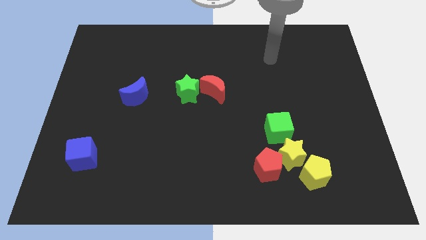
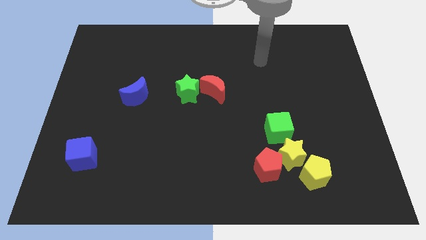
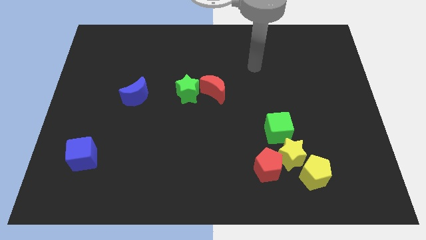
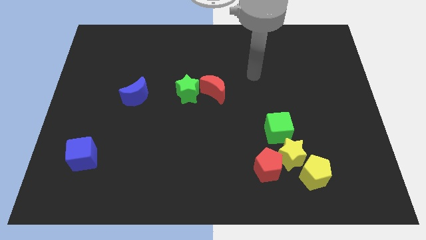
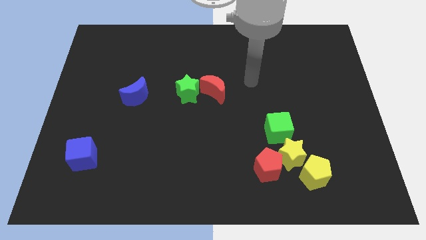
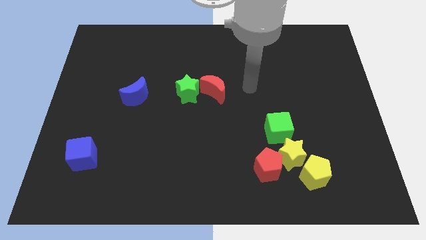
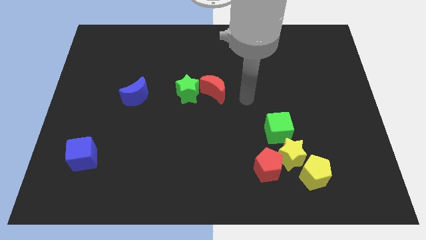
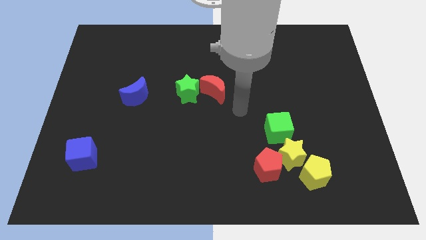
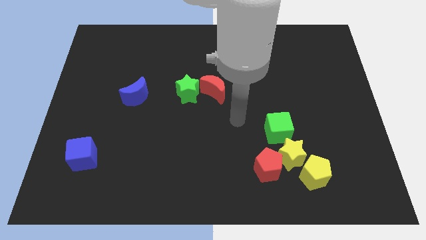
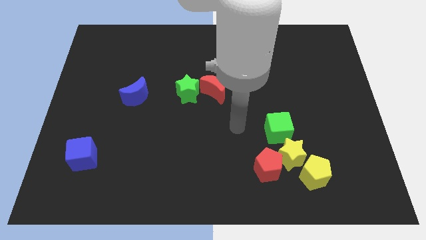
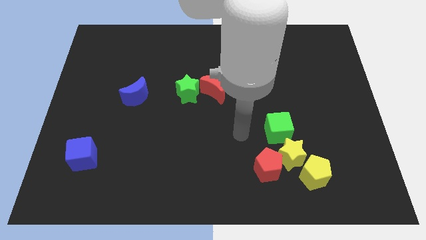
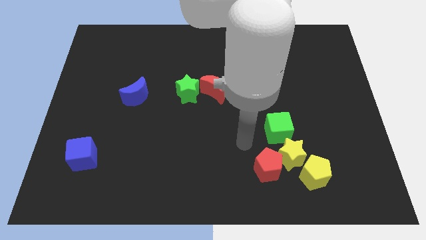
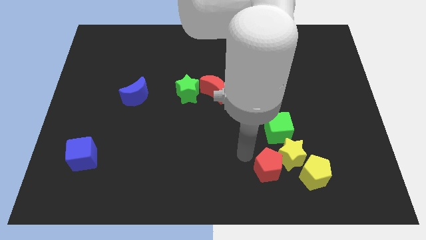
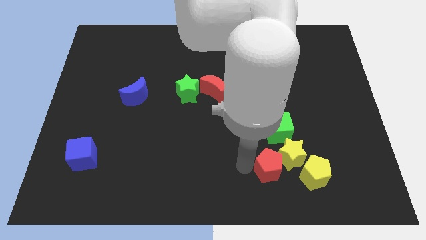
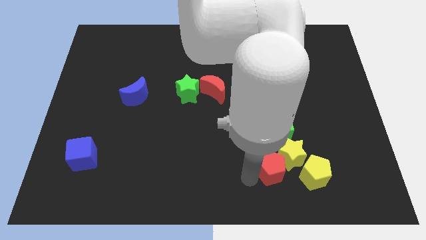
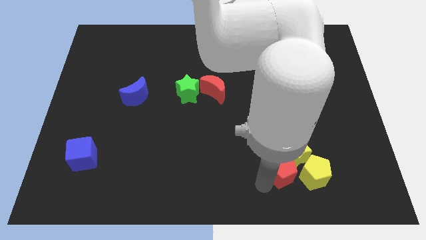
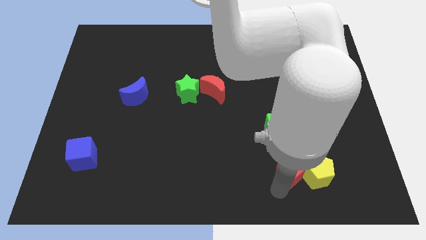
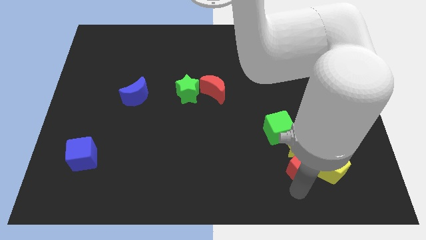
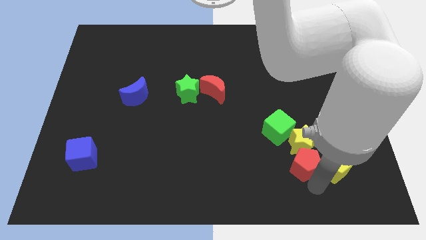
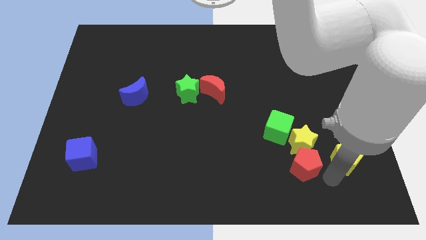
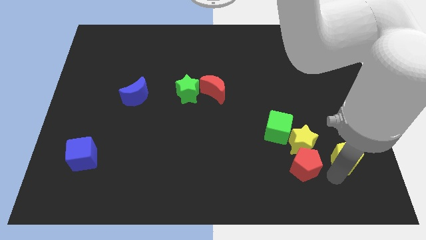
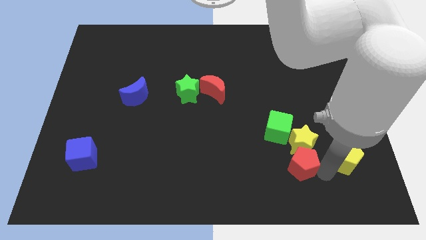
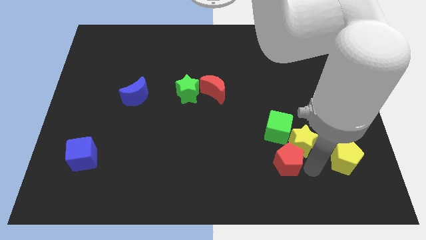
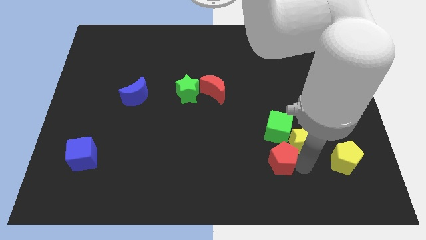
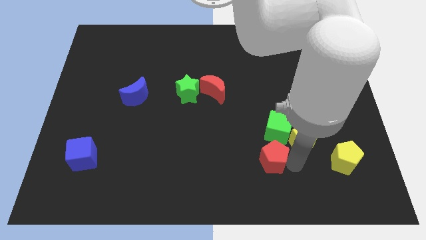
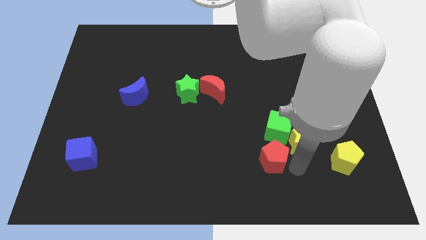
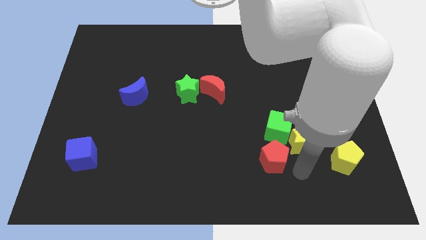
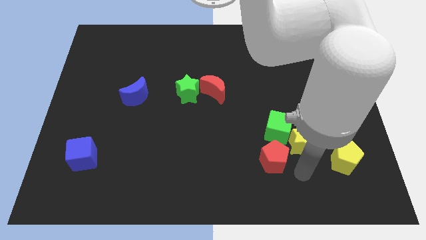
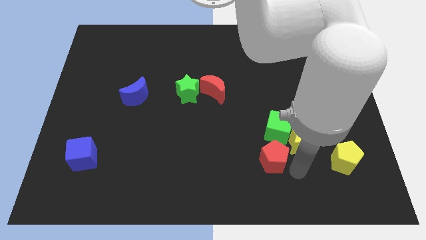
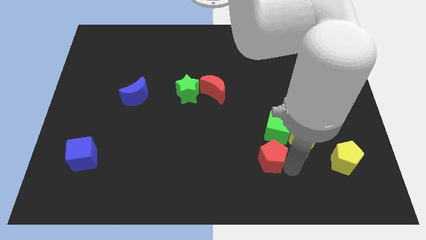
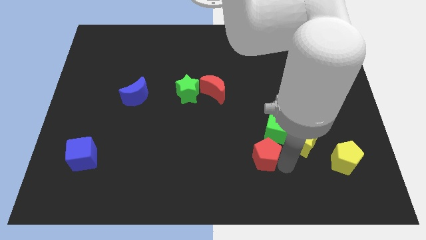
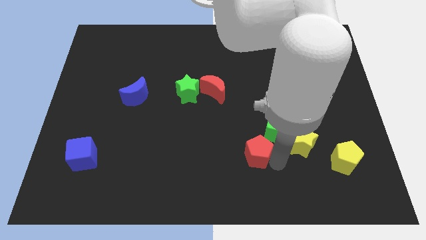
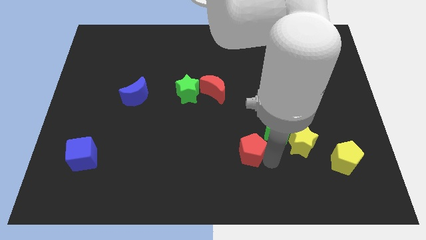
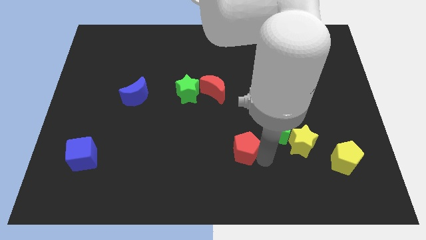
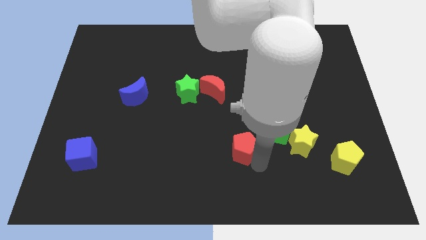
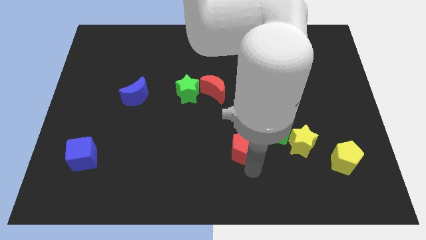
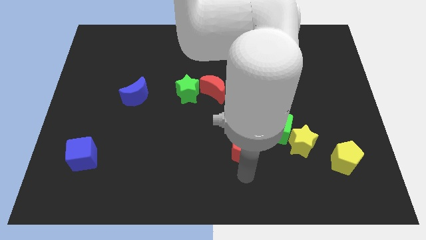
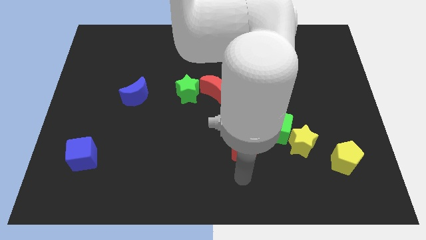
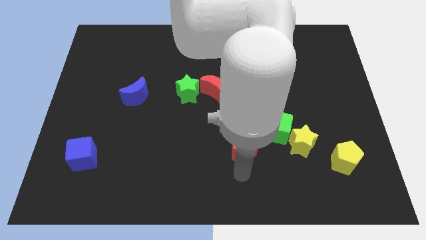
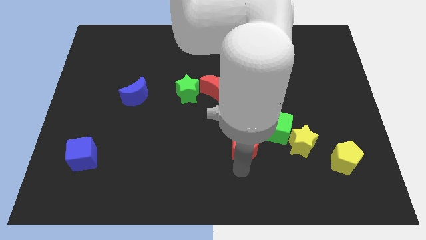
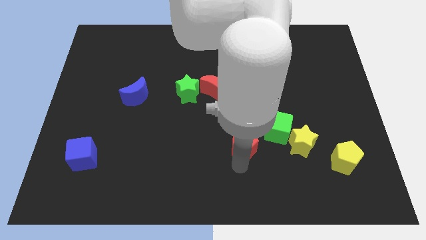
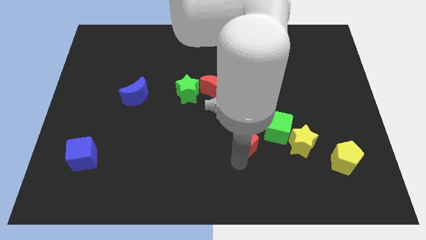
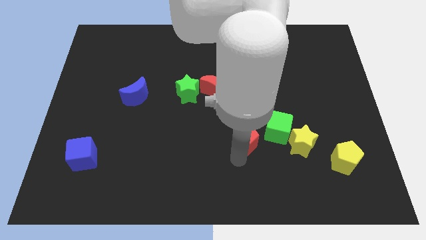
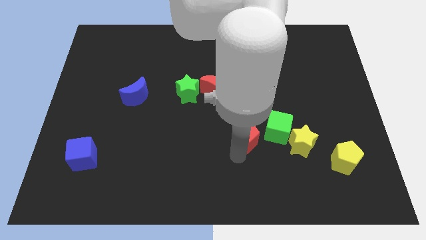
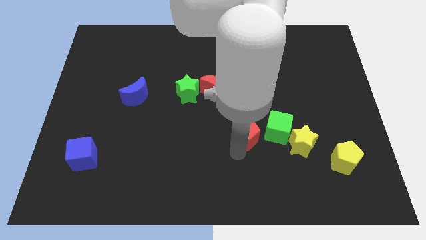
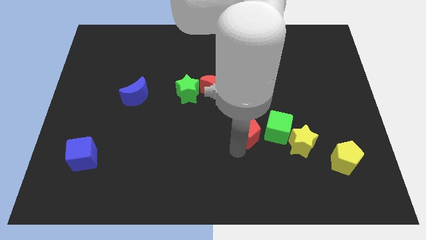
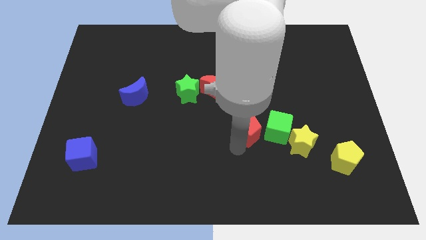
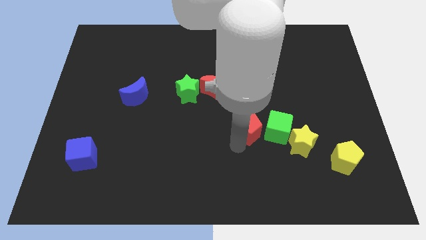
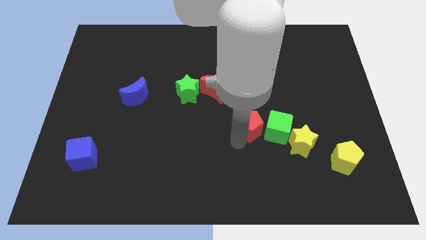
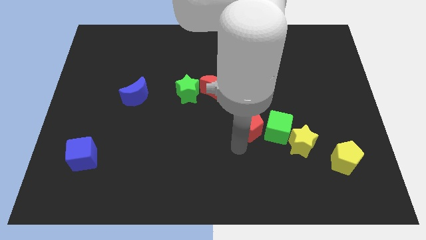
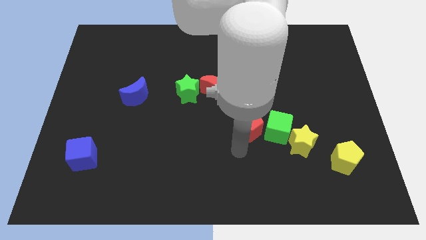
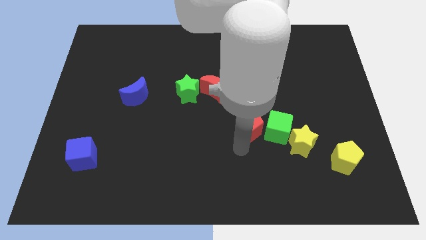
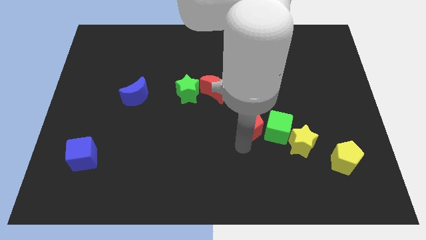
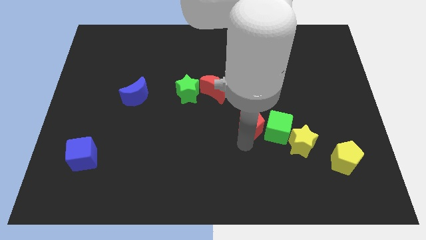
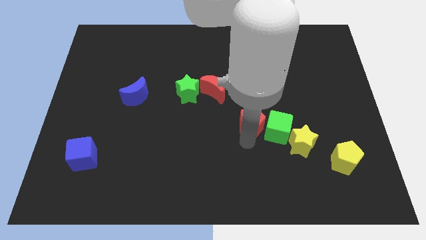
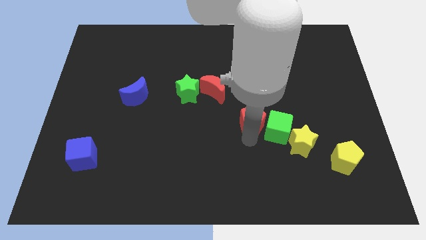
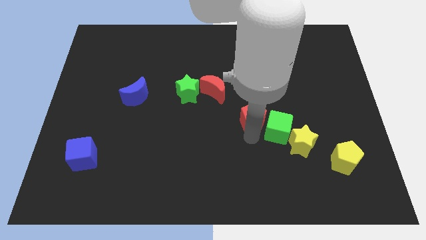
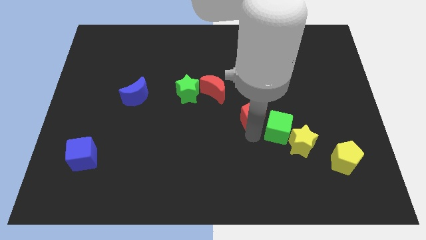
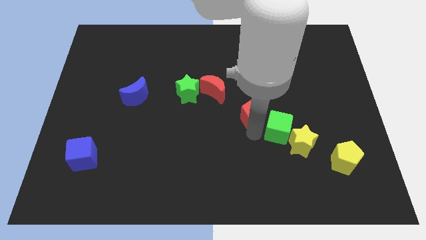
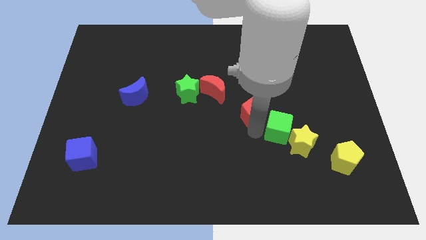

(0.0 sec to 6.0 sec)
slide the red pentagon above the green cube

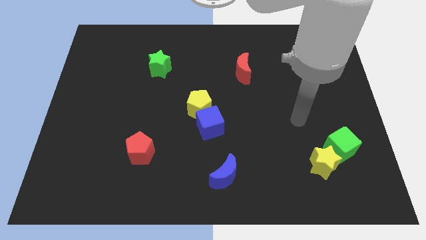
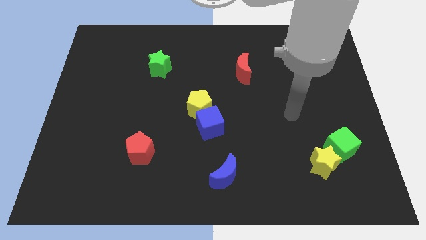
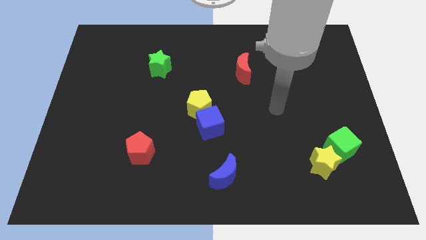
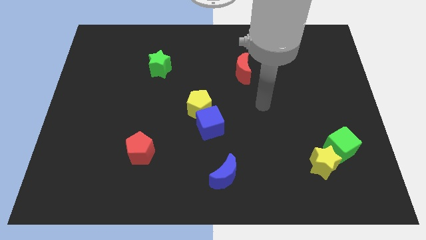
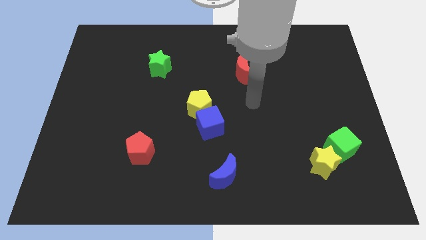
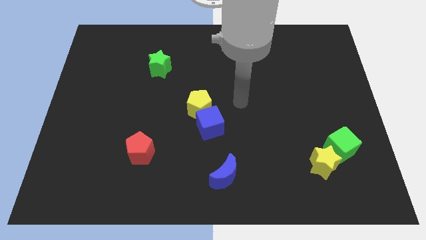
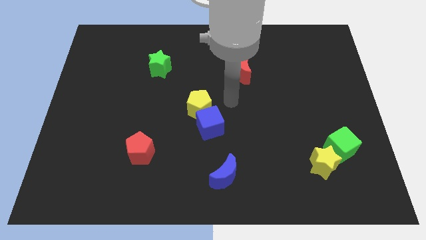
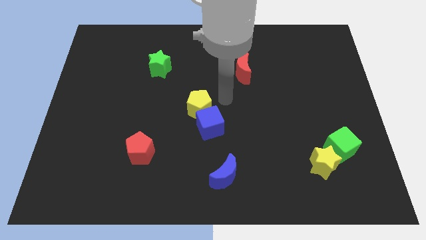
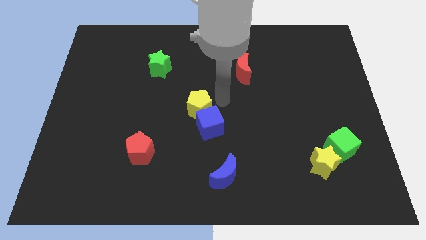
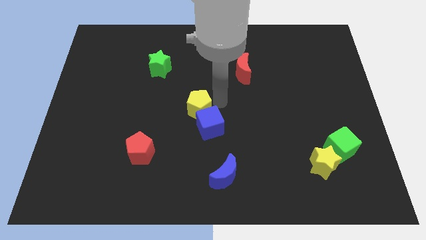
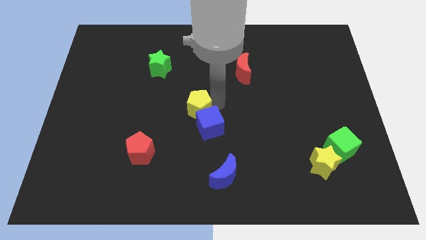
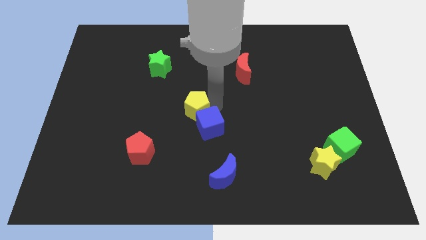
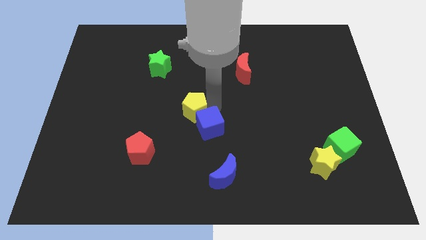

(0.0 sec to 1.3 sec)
move the yellow pentagon just left of the blue cube
